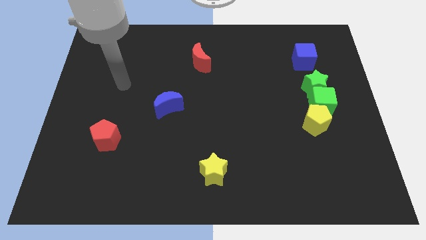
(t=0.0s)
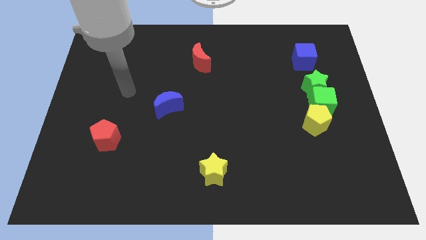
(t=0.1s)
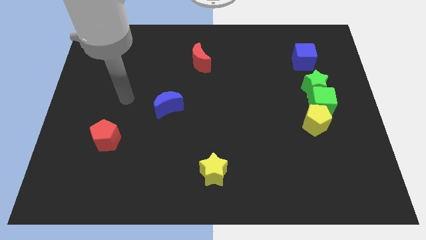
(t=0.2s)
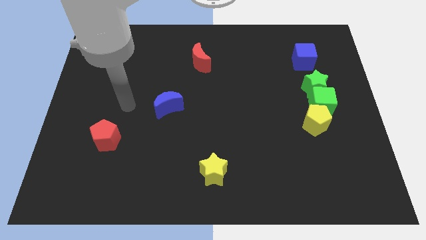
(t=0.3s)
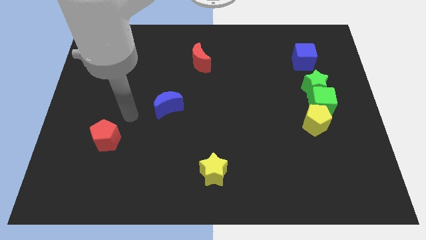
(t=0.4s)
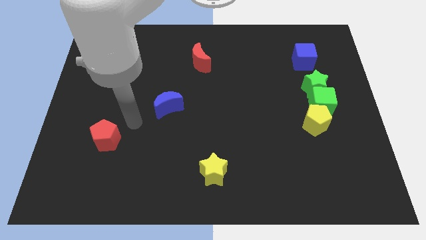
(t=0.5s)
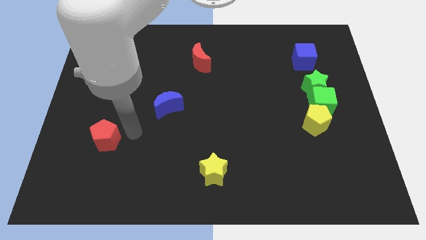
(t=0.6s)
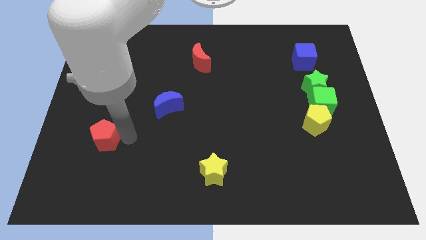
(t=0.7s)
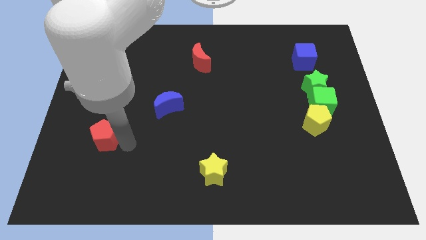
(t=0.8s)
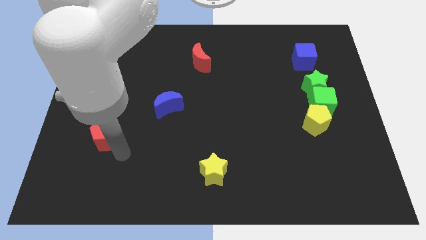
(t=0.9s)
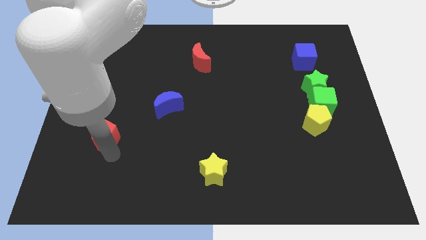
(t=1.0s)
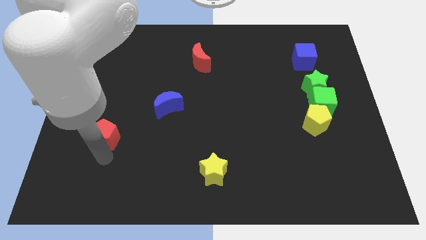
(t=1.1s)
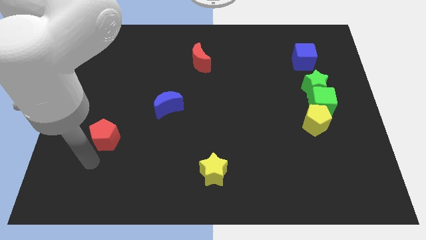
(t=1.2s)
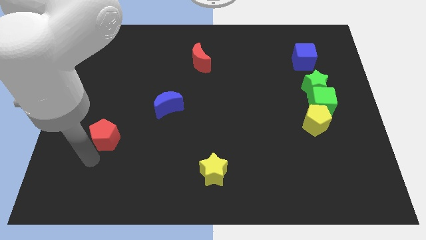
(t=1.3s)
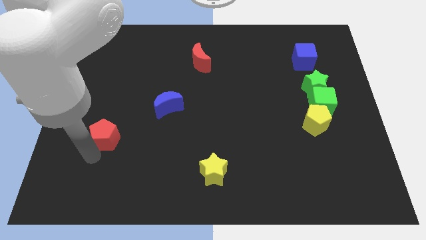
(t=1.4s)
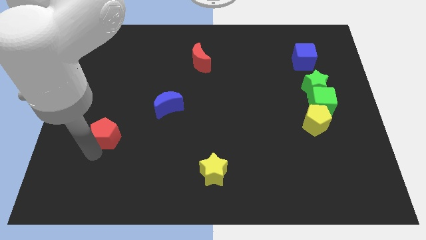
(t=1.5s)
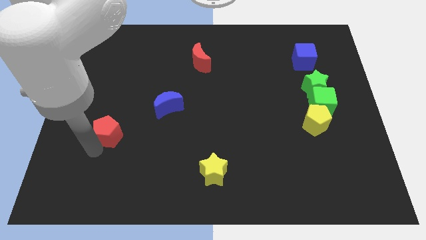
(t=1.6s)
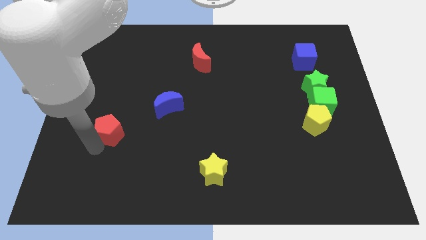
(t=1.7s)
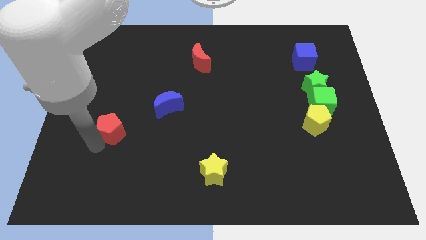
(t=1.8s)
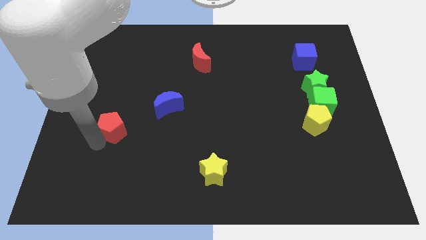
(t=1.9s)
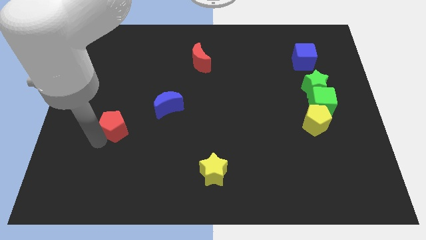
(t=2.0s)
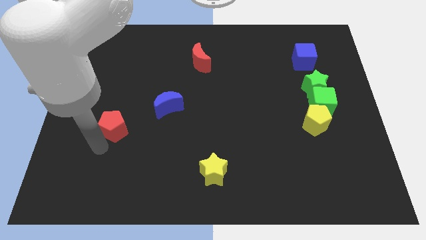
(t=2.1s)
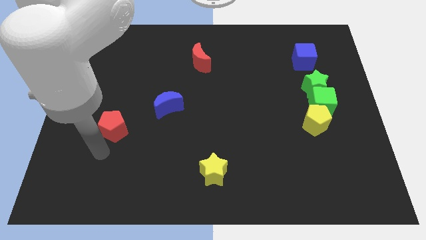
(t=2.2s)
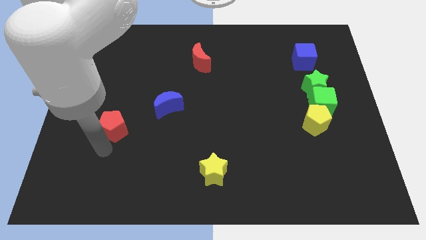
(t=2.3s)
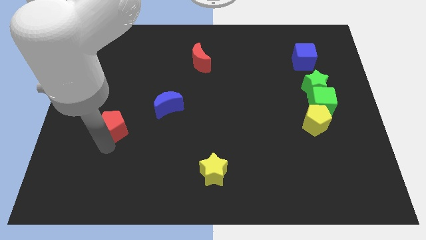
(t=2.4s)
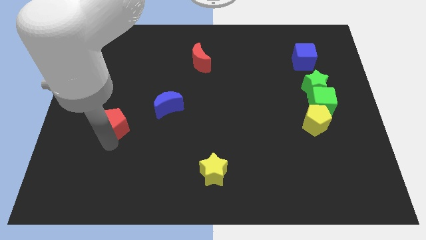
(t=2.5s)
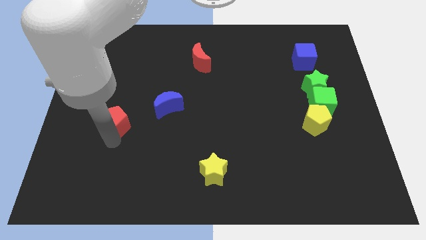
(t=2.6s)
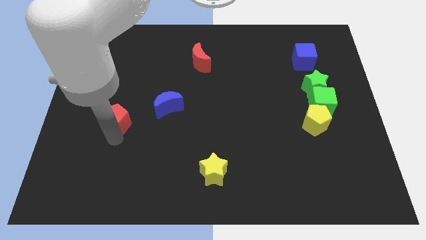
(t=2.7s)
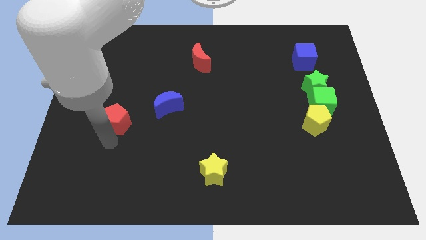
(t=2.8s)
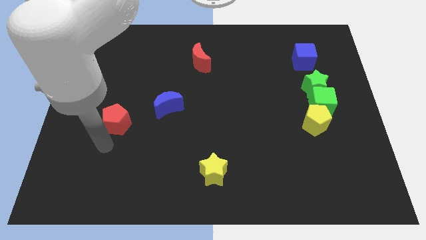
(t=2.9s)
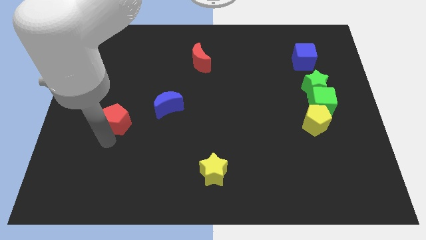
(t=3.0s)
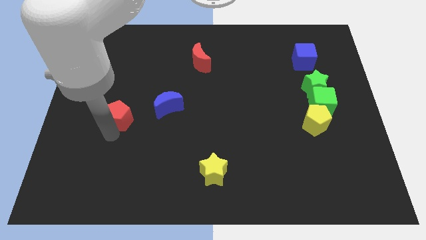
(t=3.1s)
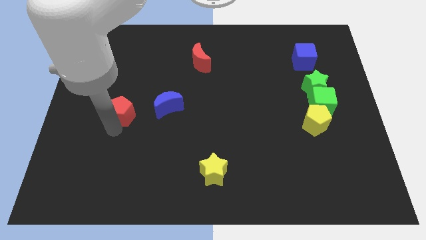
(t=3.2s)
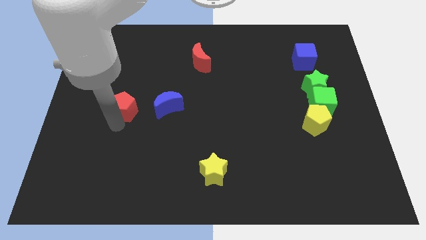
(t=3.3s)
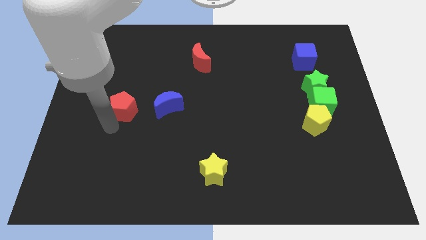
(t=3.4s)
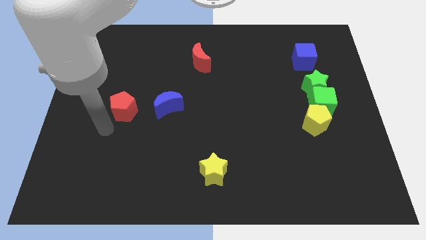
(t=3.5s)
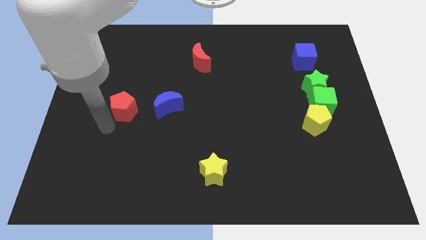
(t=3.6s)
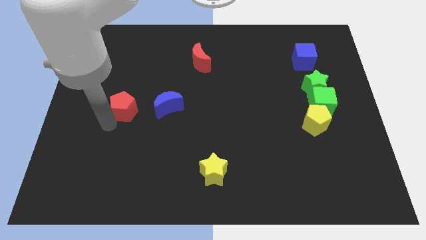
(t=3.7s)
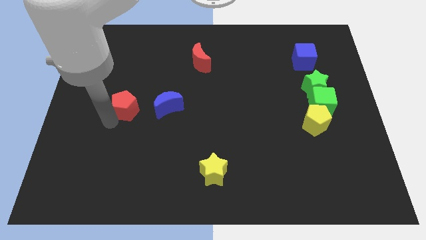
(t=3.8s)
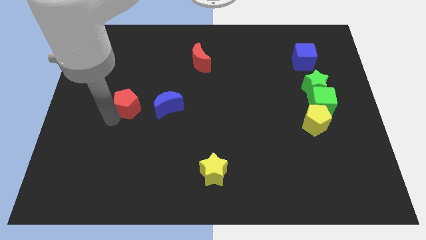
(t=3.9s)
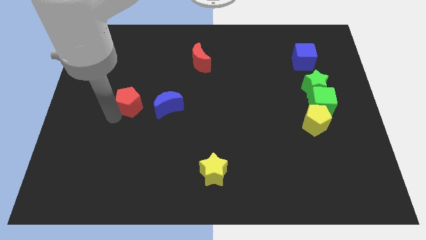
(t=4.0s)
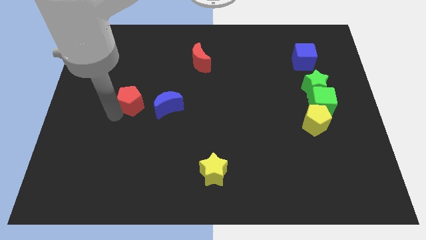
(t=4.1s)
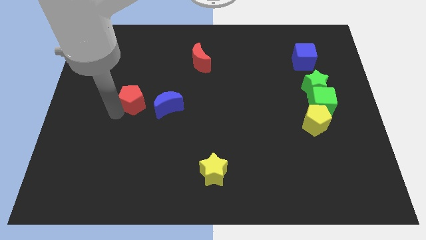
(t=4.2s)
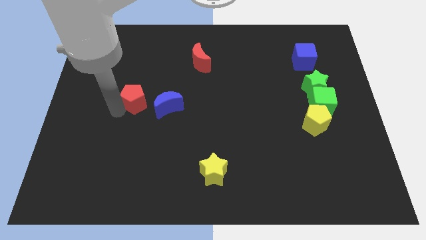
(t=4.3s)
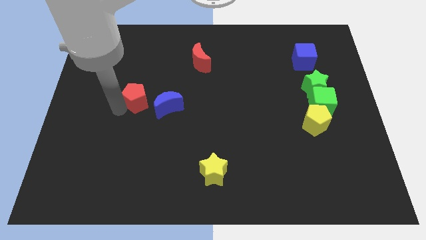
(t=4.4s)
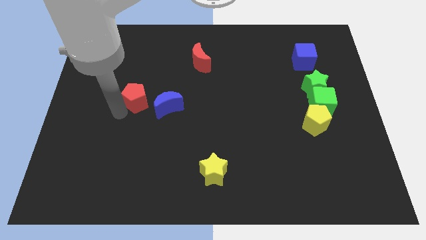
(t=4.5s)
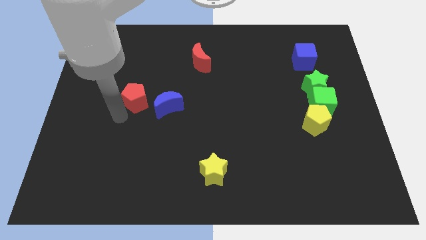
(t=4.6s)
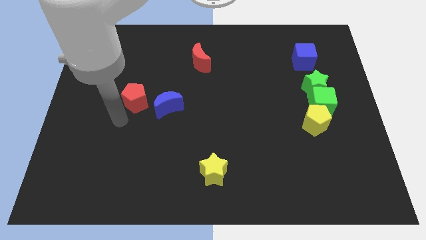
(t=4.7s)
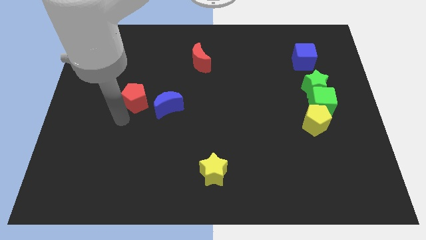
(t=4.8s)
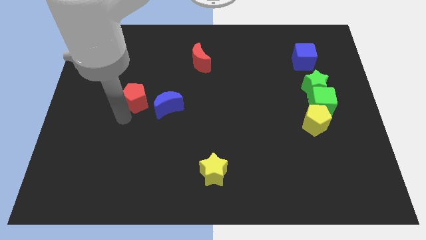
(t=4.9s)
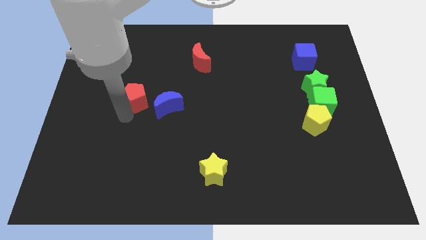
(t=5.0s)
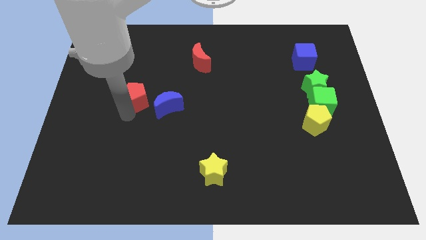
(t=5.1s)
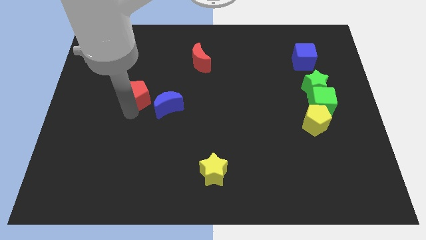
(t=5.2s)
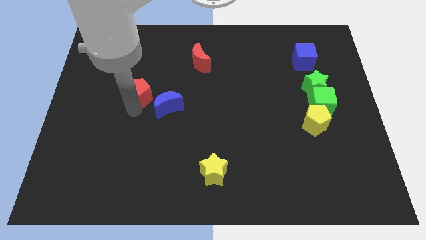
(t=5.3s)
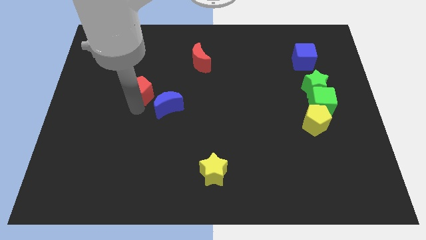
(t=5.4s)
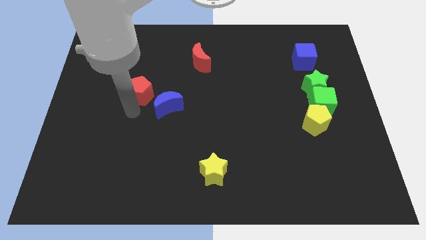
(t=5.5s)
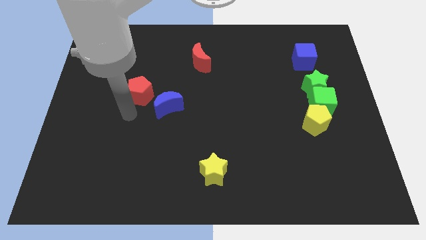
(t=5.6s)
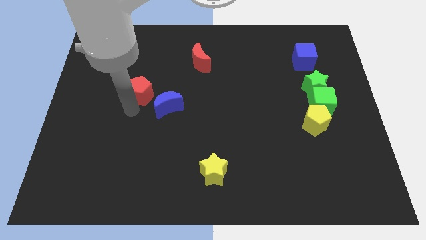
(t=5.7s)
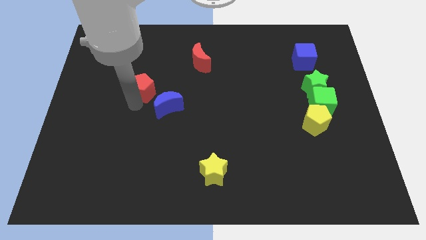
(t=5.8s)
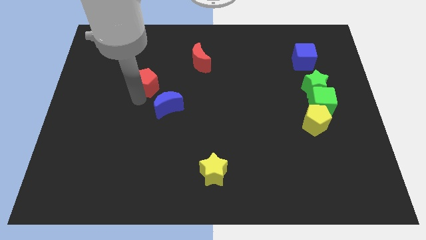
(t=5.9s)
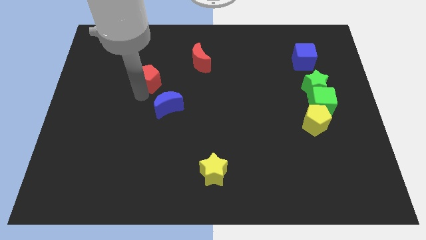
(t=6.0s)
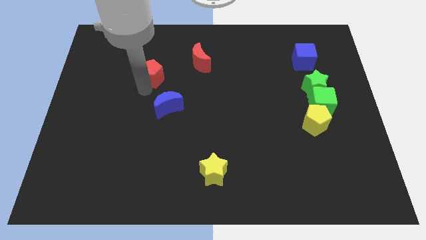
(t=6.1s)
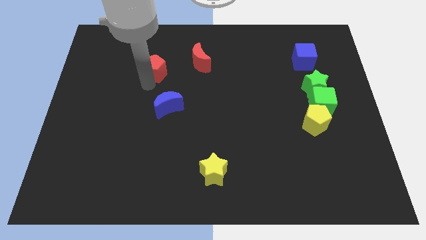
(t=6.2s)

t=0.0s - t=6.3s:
push the red pentagon left of the red moon
